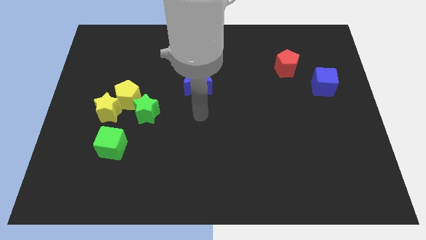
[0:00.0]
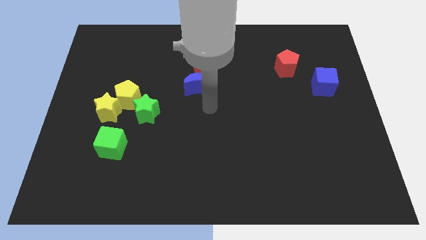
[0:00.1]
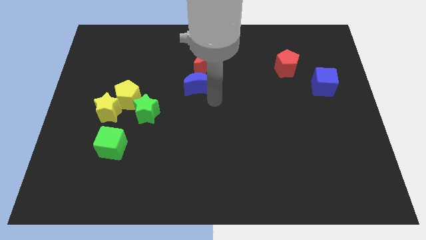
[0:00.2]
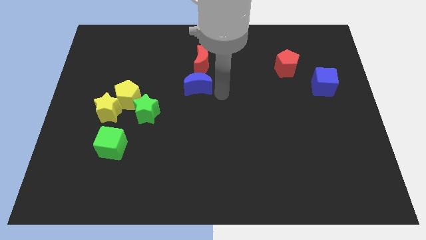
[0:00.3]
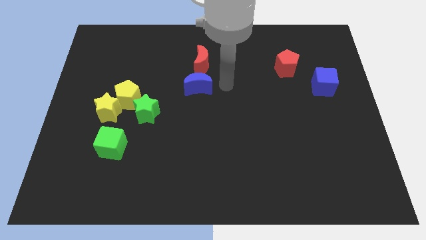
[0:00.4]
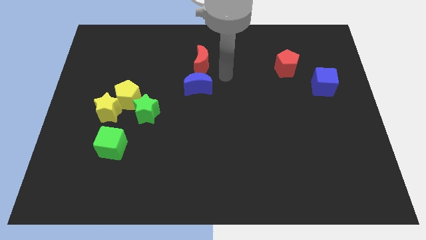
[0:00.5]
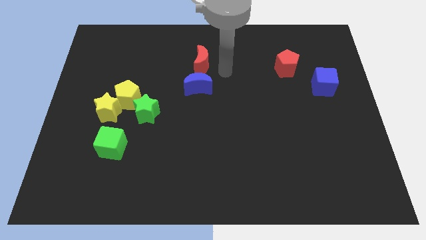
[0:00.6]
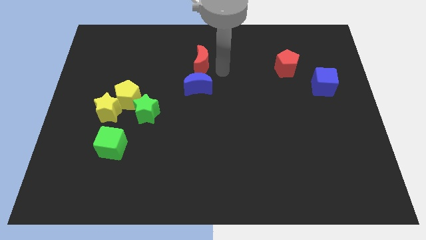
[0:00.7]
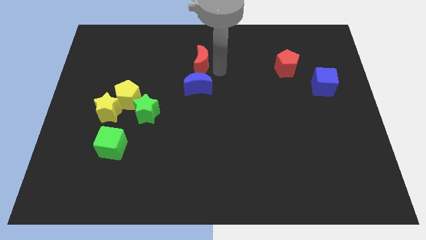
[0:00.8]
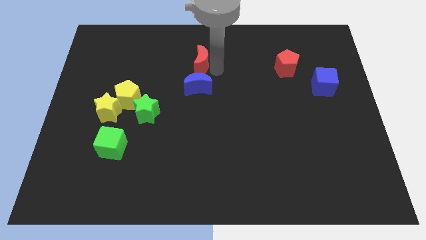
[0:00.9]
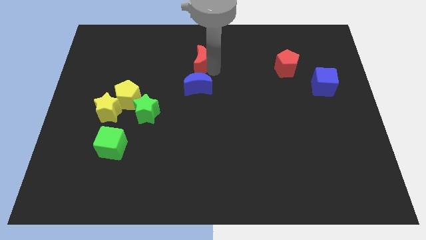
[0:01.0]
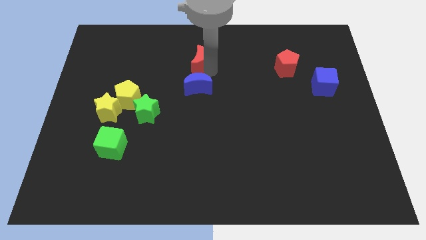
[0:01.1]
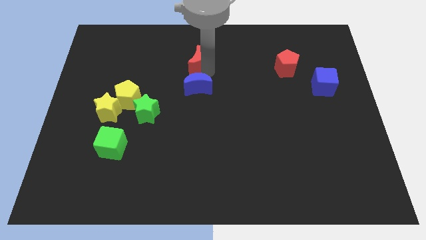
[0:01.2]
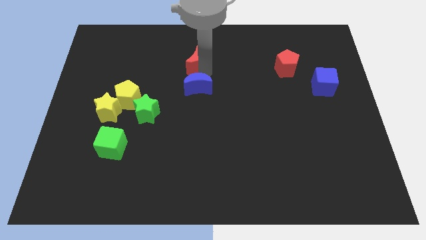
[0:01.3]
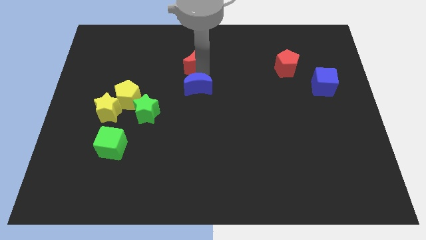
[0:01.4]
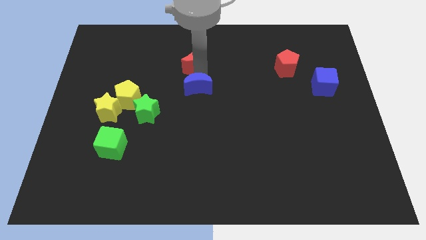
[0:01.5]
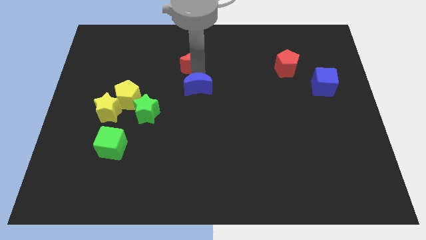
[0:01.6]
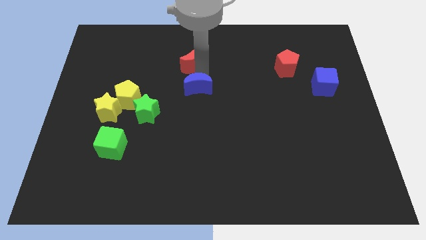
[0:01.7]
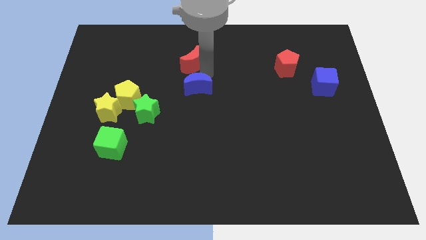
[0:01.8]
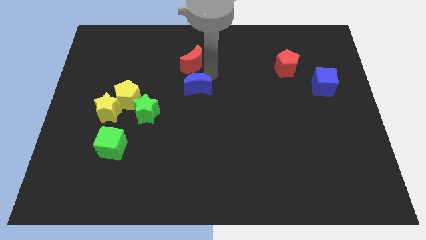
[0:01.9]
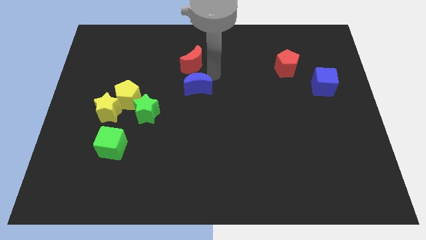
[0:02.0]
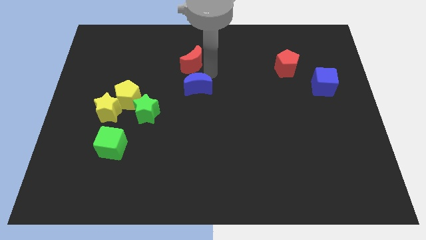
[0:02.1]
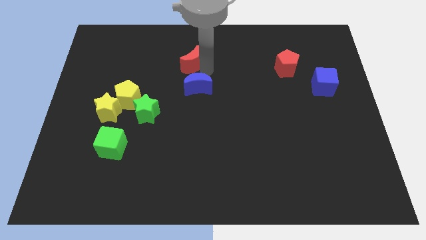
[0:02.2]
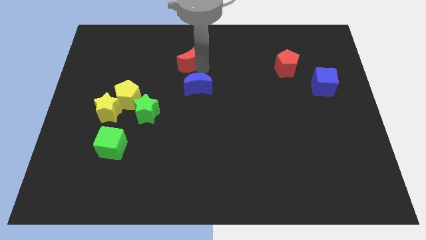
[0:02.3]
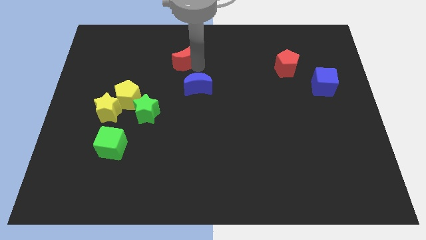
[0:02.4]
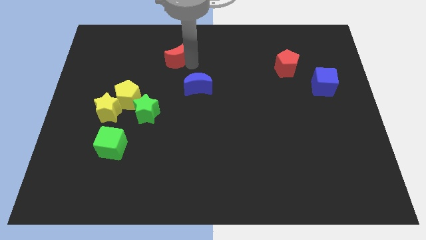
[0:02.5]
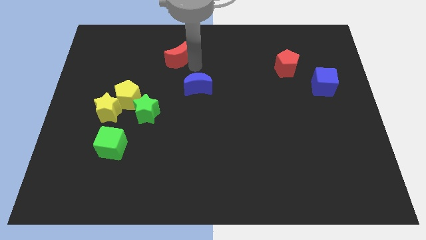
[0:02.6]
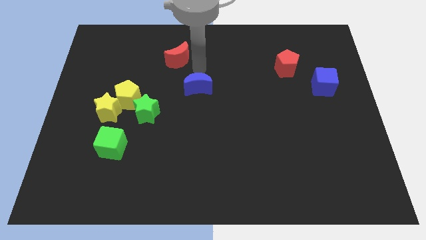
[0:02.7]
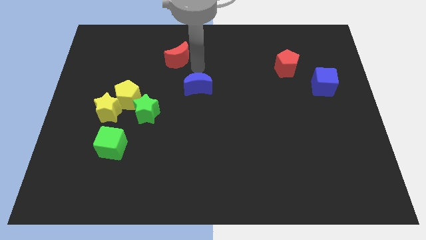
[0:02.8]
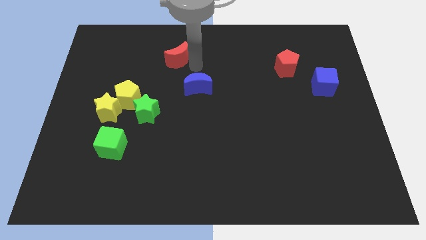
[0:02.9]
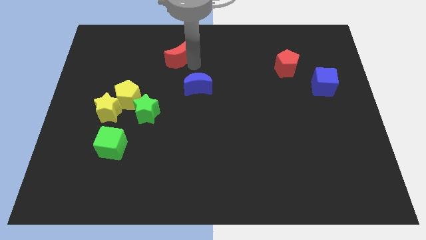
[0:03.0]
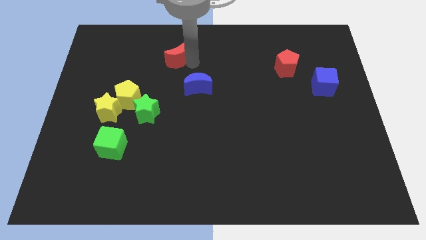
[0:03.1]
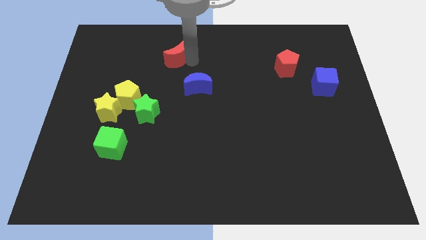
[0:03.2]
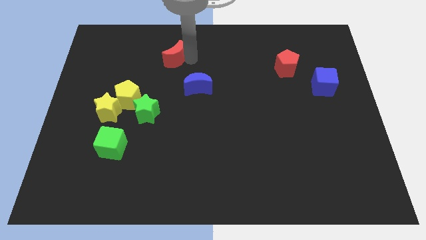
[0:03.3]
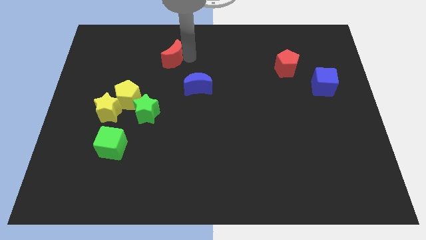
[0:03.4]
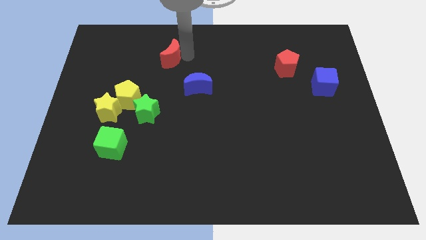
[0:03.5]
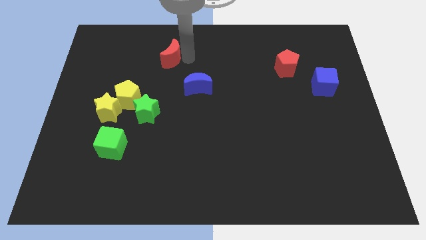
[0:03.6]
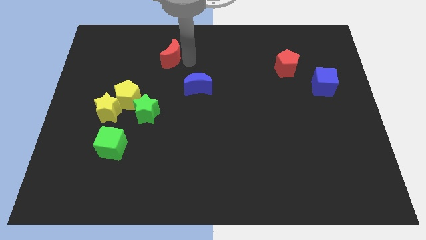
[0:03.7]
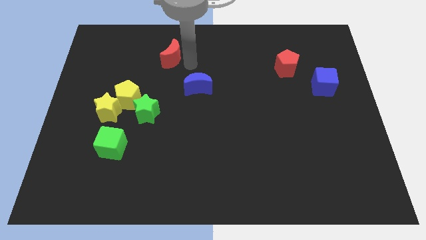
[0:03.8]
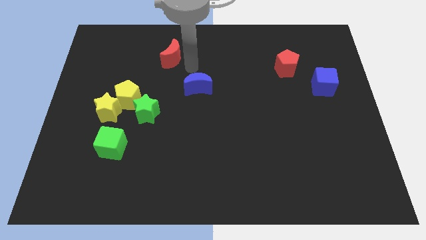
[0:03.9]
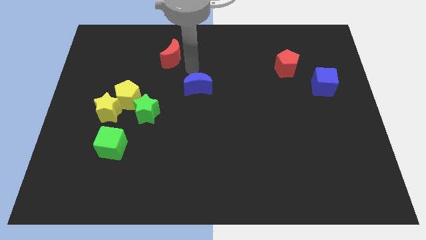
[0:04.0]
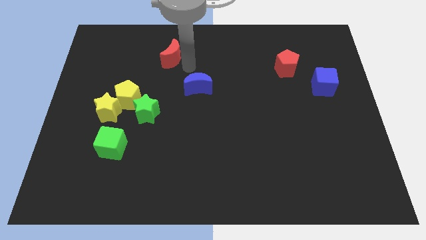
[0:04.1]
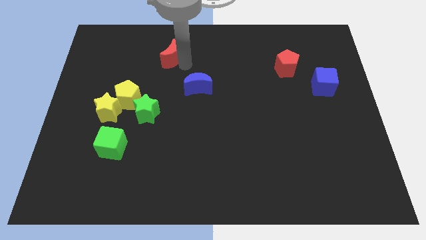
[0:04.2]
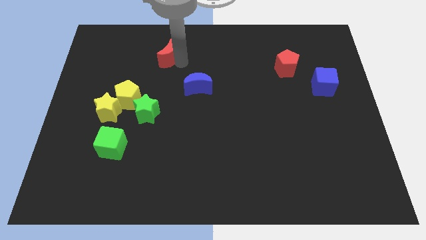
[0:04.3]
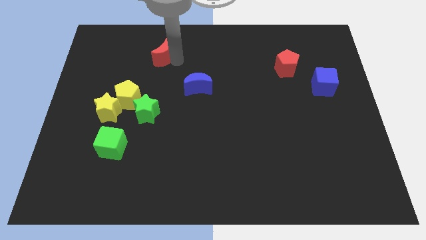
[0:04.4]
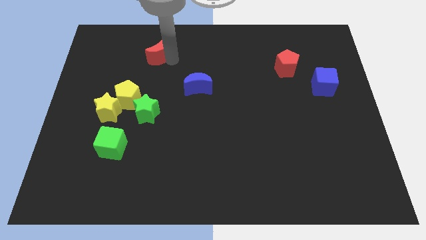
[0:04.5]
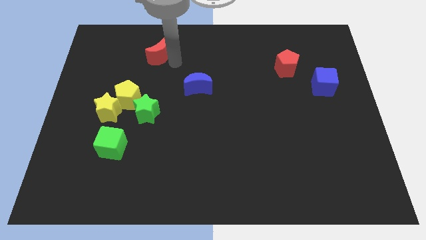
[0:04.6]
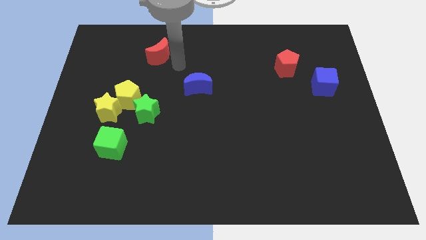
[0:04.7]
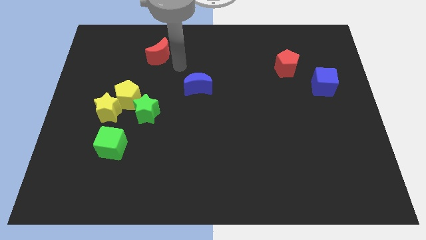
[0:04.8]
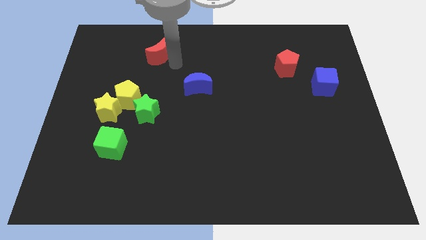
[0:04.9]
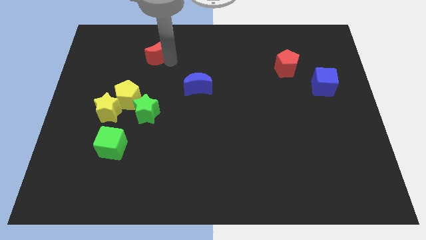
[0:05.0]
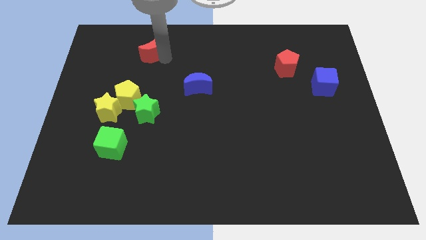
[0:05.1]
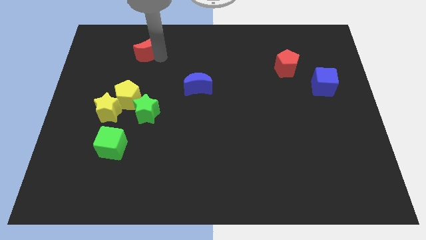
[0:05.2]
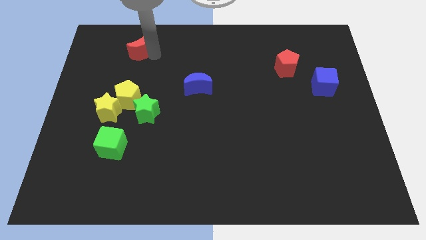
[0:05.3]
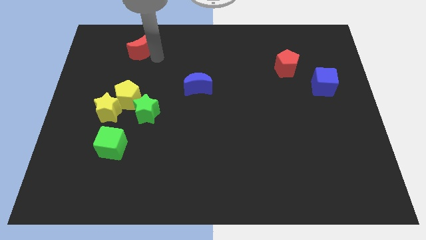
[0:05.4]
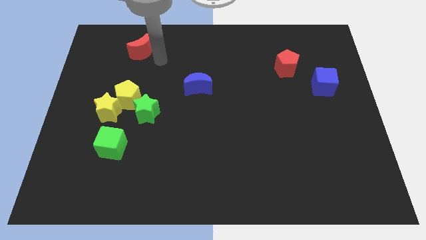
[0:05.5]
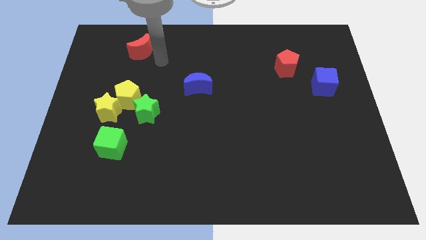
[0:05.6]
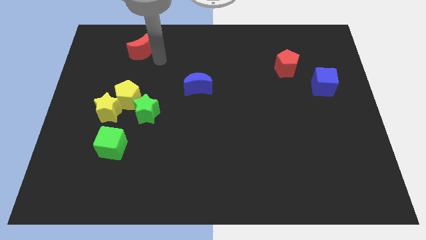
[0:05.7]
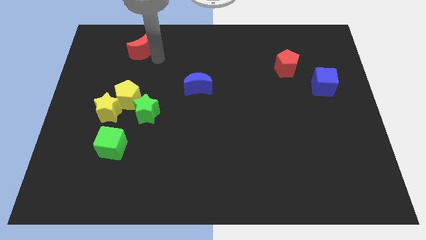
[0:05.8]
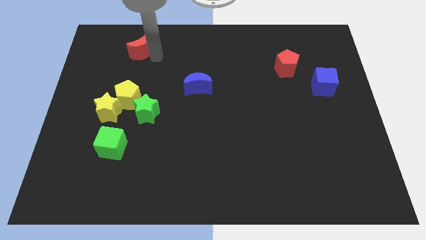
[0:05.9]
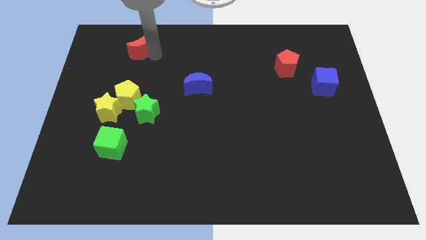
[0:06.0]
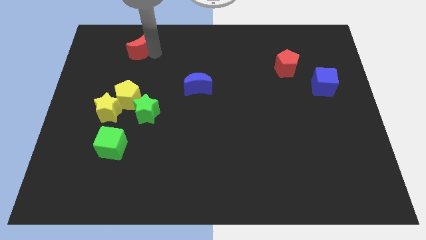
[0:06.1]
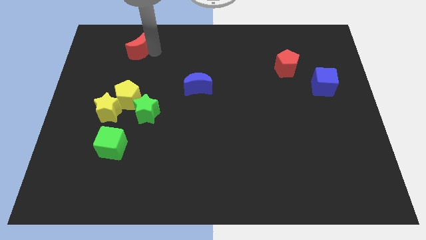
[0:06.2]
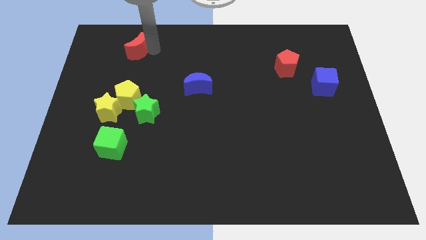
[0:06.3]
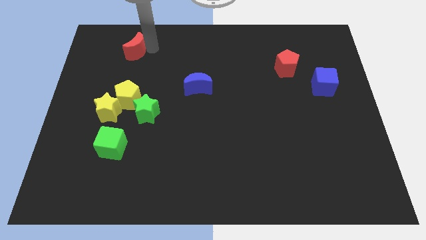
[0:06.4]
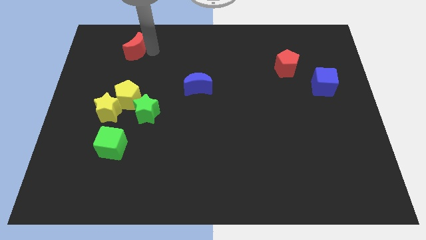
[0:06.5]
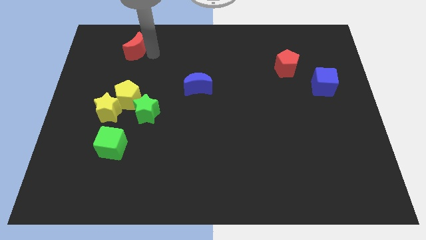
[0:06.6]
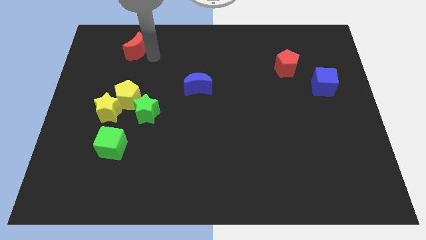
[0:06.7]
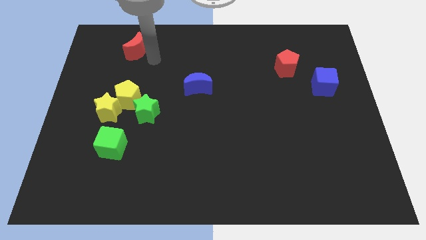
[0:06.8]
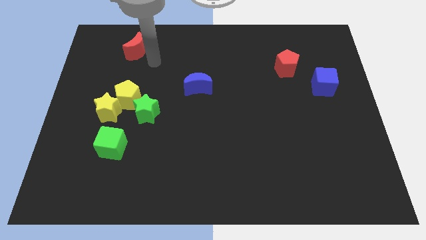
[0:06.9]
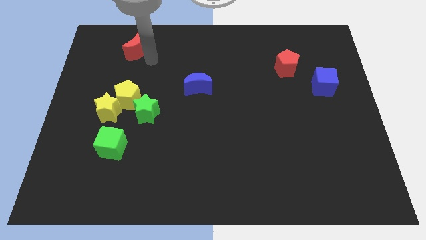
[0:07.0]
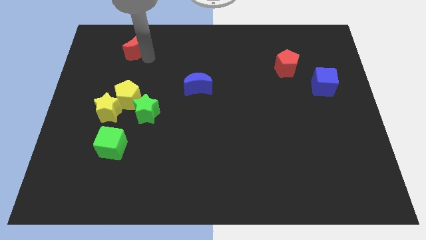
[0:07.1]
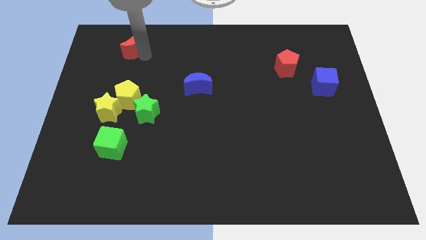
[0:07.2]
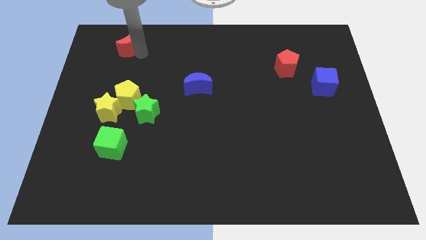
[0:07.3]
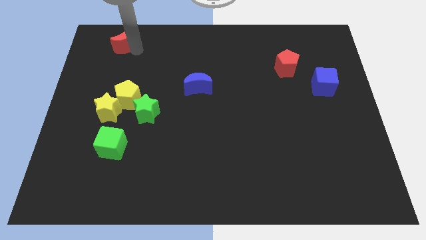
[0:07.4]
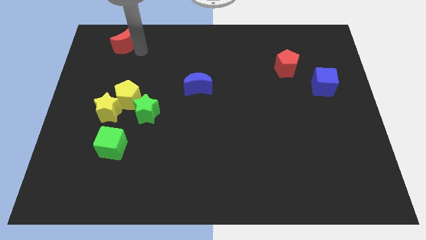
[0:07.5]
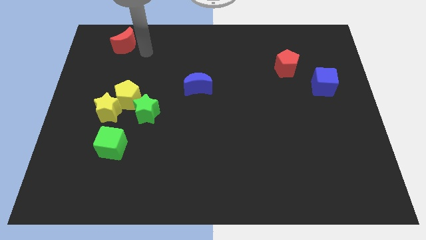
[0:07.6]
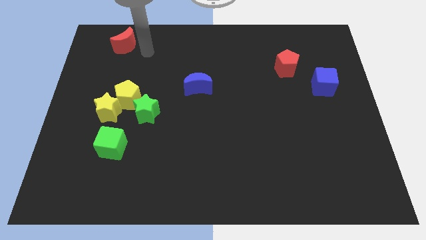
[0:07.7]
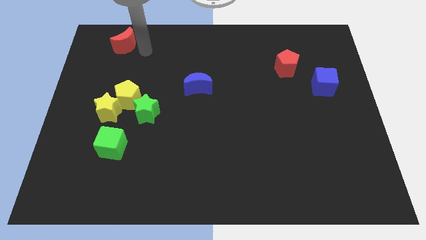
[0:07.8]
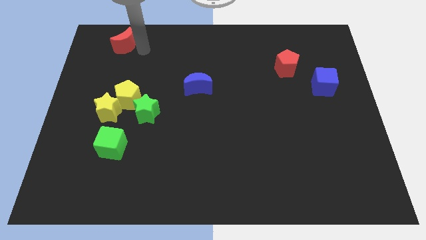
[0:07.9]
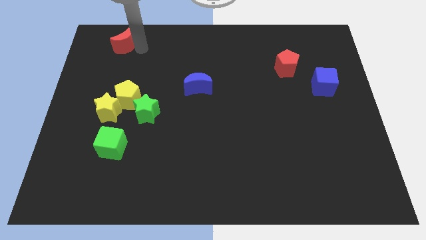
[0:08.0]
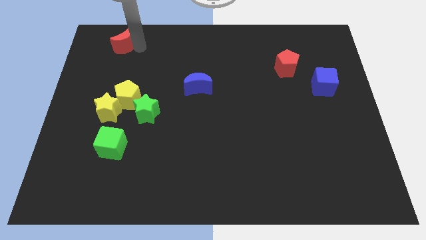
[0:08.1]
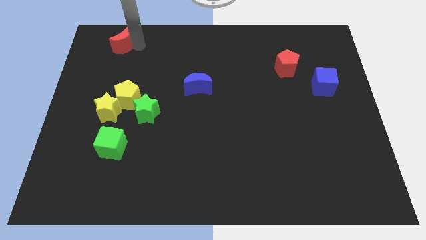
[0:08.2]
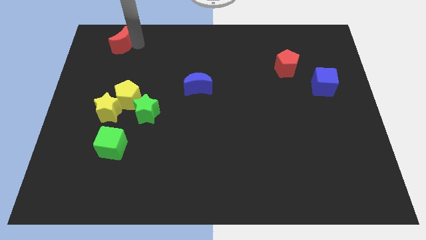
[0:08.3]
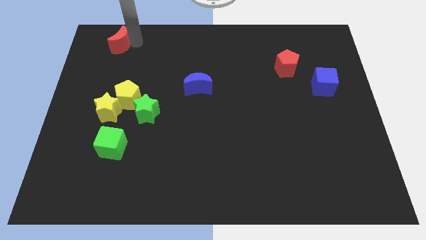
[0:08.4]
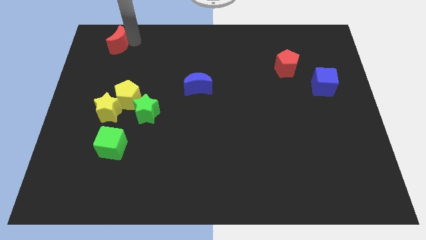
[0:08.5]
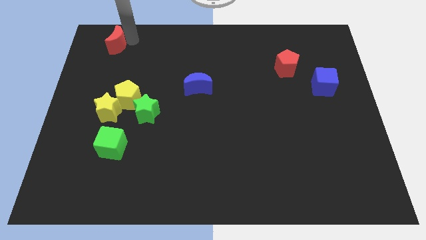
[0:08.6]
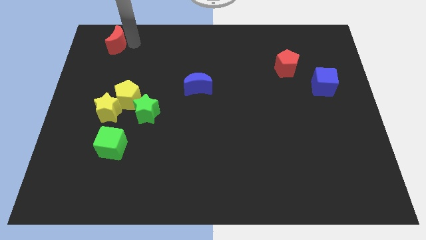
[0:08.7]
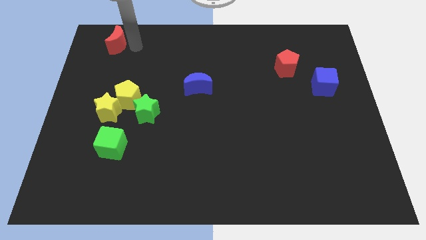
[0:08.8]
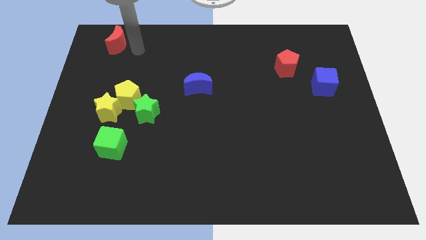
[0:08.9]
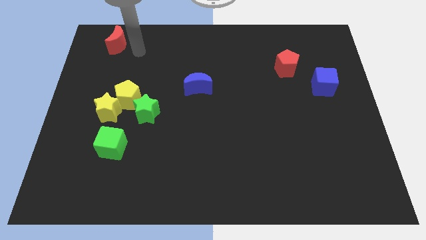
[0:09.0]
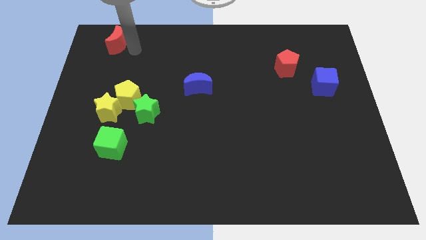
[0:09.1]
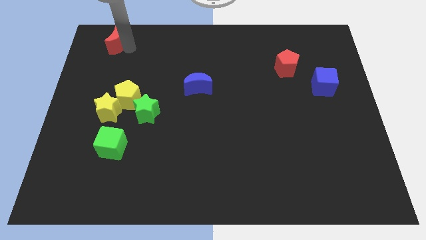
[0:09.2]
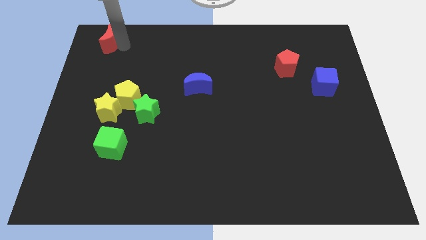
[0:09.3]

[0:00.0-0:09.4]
push the red moon to the top left
